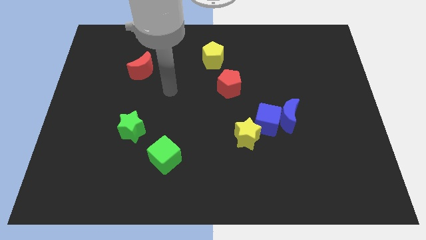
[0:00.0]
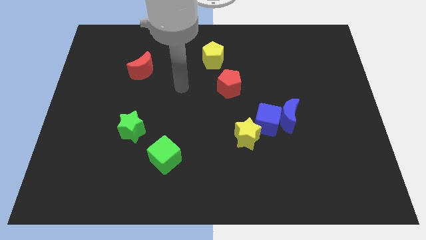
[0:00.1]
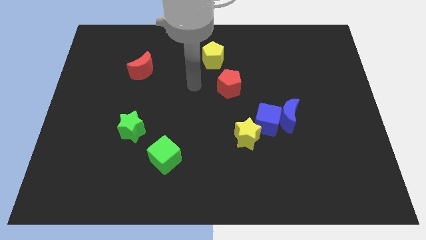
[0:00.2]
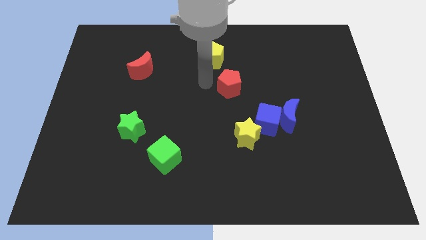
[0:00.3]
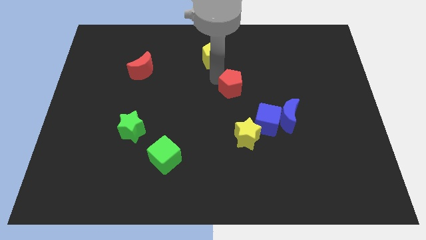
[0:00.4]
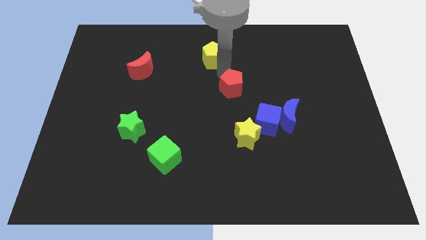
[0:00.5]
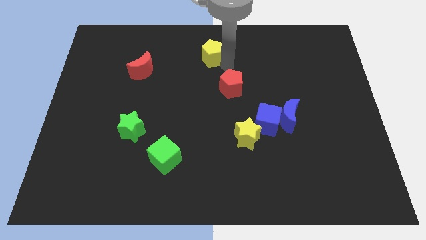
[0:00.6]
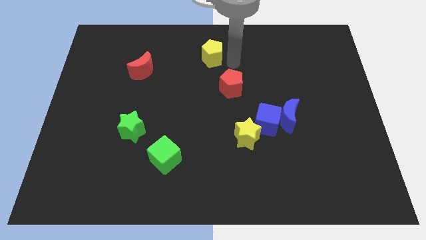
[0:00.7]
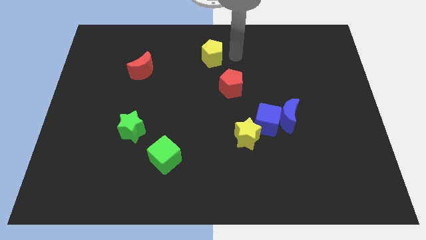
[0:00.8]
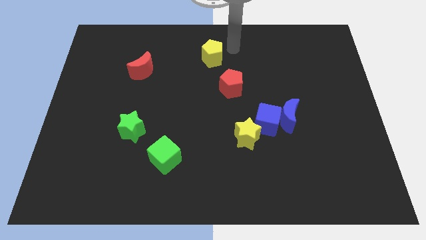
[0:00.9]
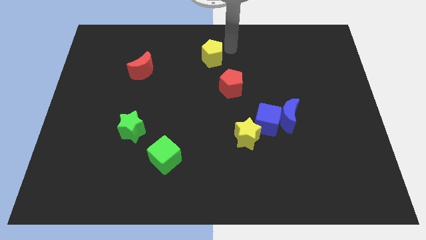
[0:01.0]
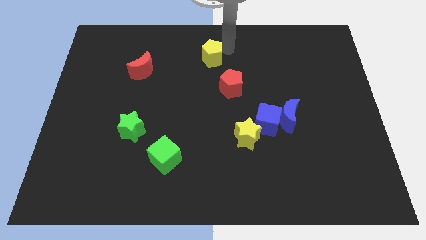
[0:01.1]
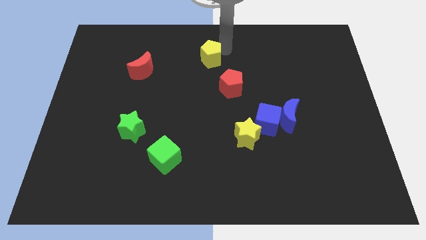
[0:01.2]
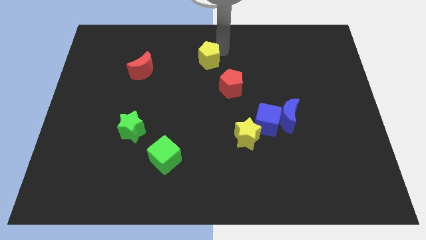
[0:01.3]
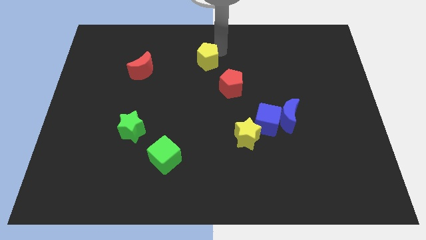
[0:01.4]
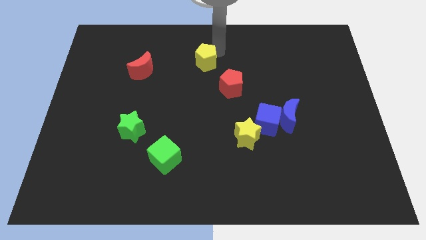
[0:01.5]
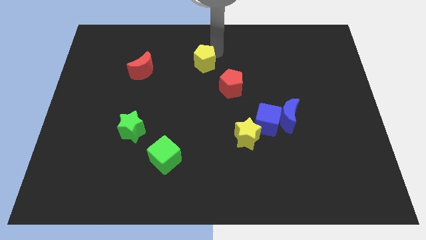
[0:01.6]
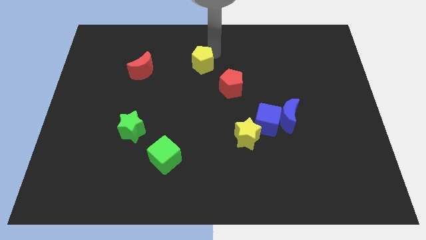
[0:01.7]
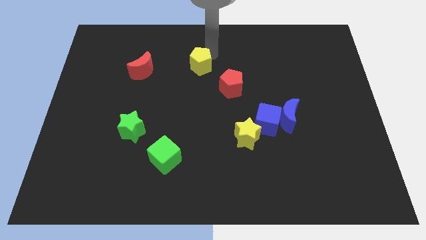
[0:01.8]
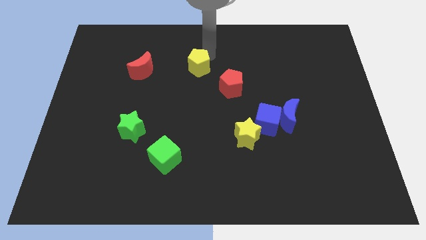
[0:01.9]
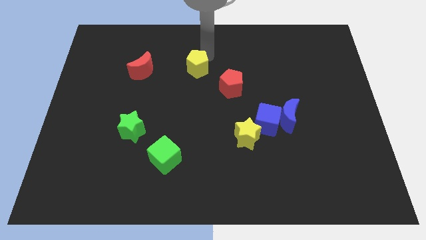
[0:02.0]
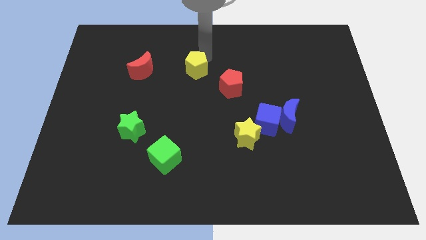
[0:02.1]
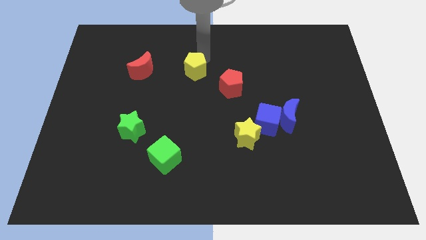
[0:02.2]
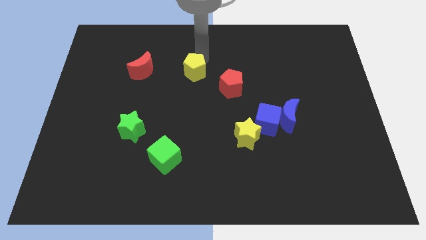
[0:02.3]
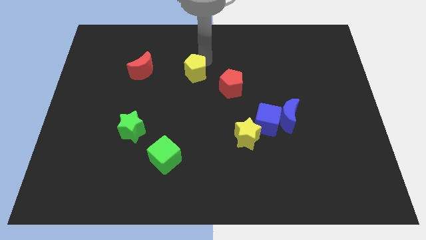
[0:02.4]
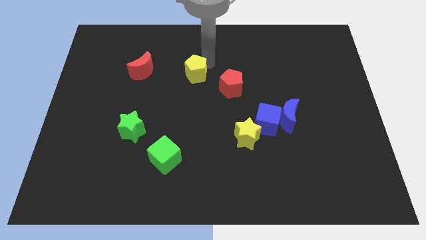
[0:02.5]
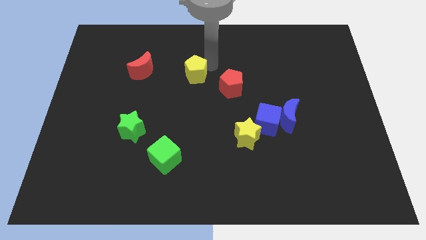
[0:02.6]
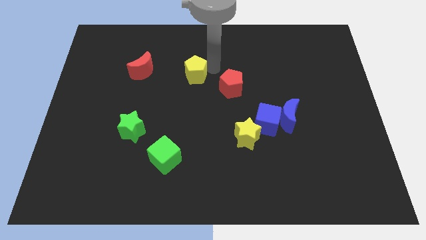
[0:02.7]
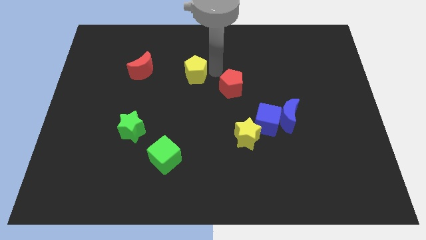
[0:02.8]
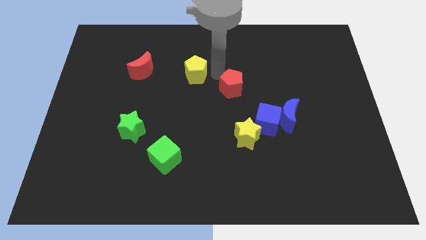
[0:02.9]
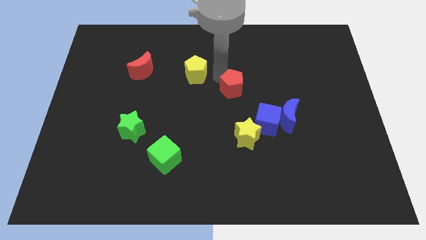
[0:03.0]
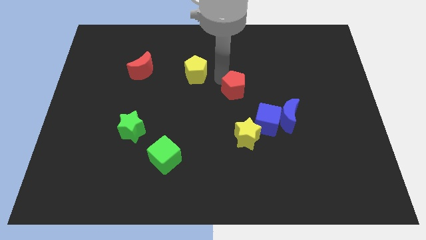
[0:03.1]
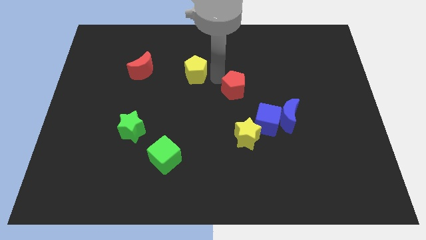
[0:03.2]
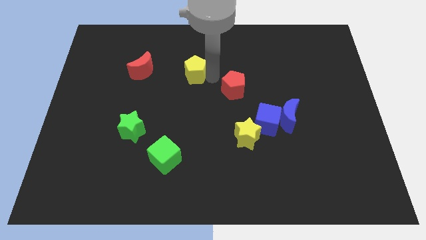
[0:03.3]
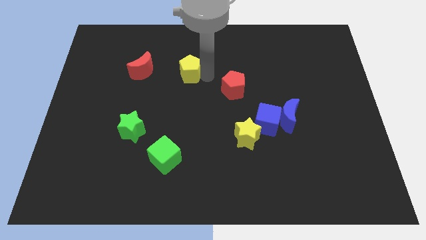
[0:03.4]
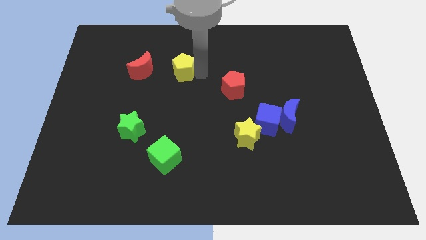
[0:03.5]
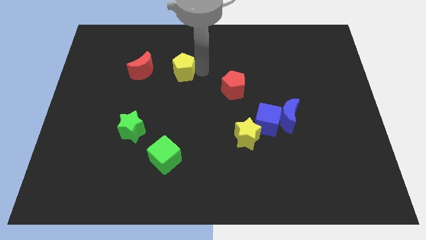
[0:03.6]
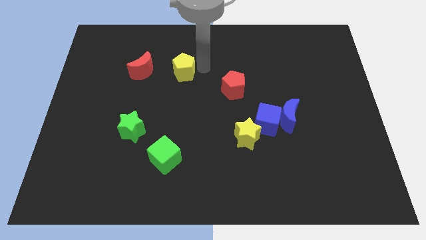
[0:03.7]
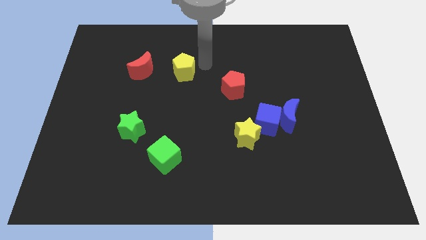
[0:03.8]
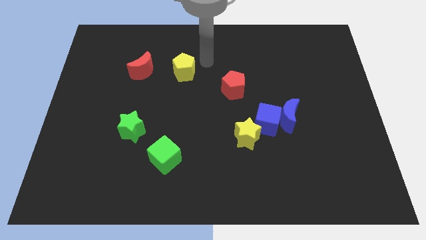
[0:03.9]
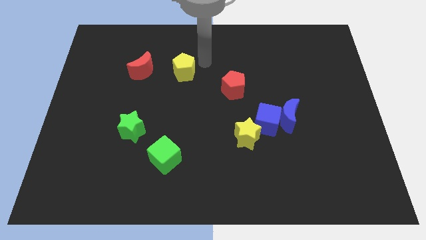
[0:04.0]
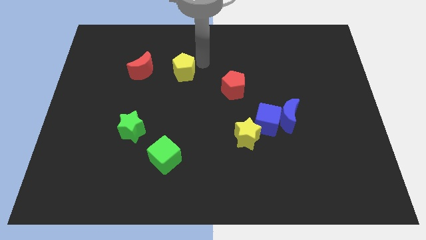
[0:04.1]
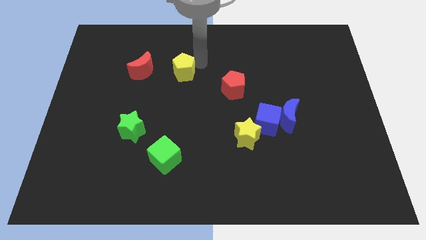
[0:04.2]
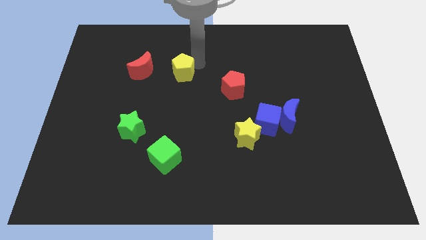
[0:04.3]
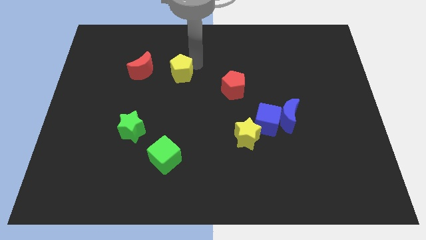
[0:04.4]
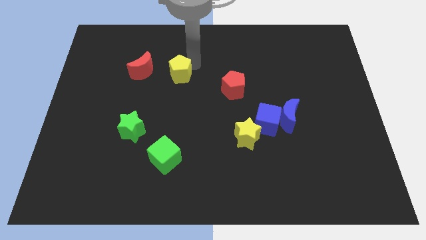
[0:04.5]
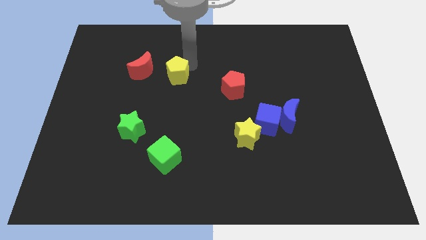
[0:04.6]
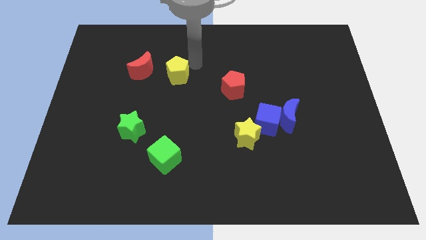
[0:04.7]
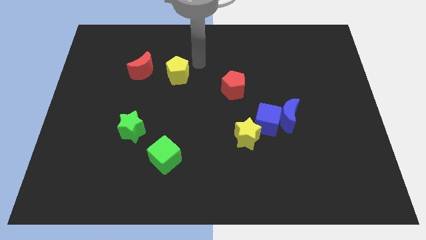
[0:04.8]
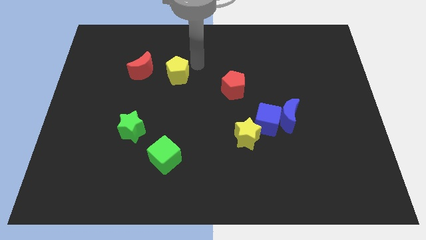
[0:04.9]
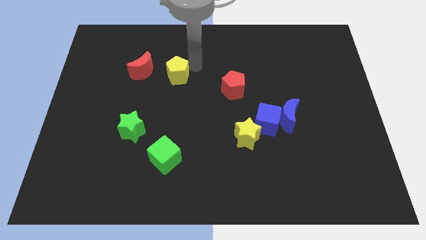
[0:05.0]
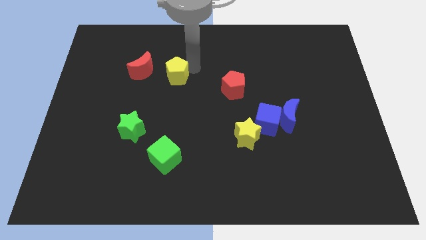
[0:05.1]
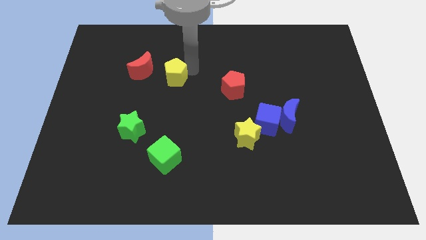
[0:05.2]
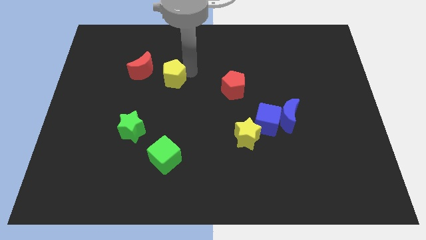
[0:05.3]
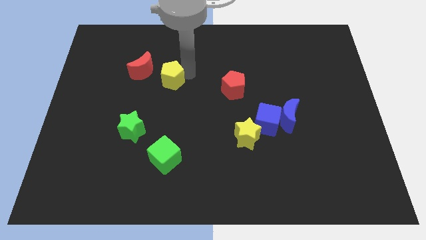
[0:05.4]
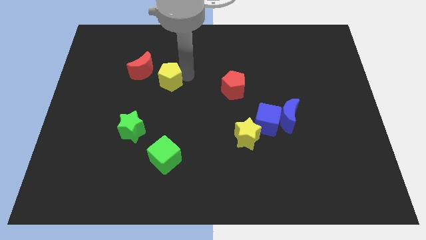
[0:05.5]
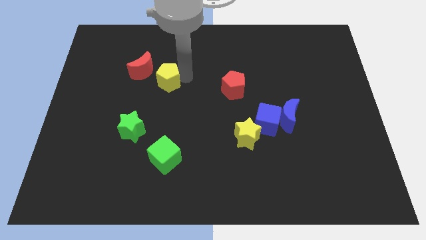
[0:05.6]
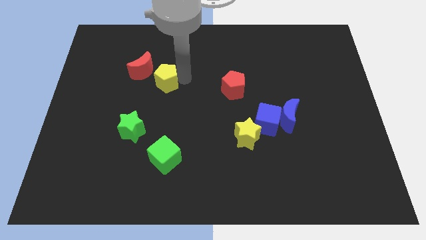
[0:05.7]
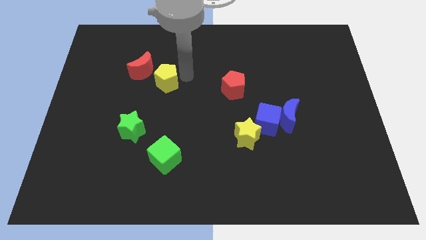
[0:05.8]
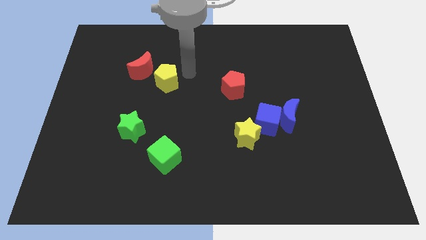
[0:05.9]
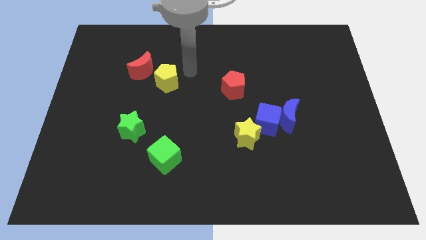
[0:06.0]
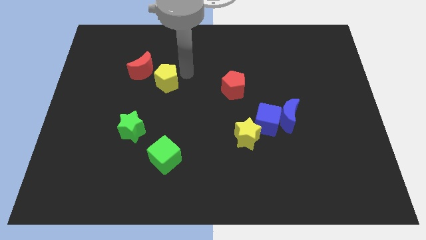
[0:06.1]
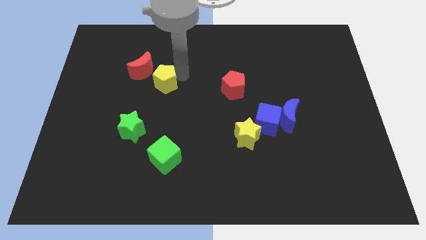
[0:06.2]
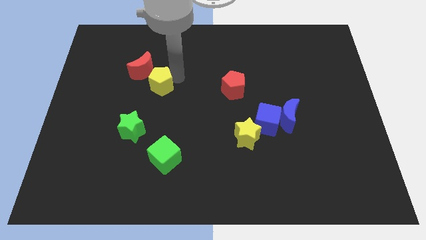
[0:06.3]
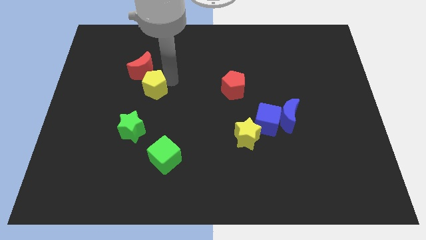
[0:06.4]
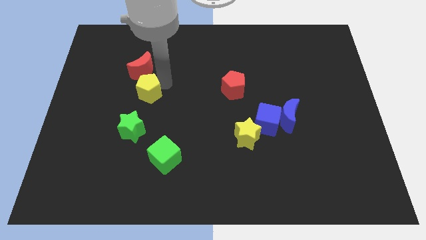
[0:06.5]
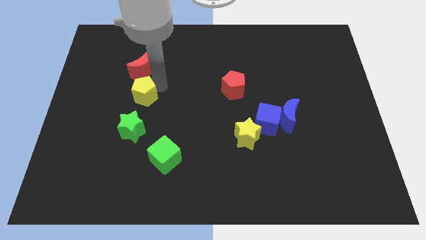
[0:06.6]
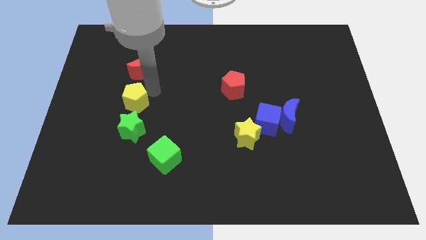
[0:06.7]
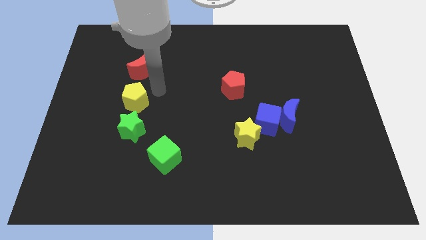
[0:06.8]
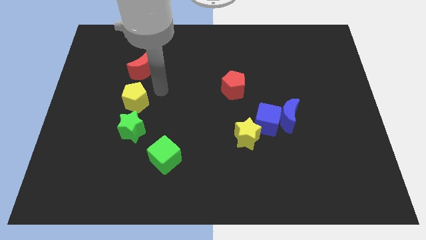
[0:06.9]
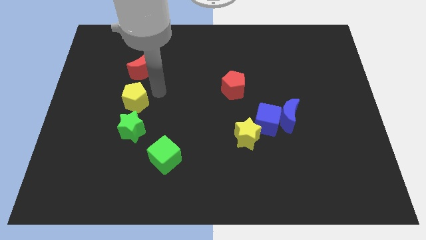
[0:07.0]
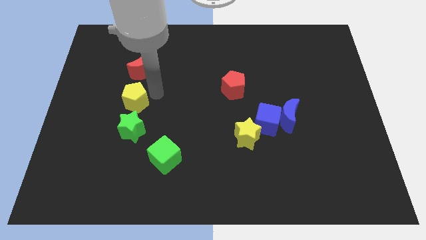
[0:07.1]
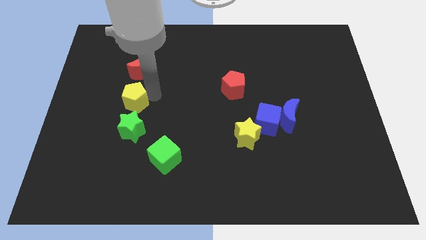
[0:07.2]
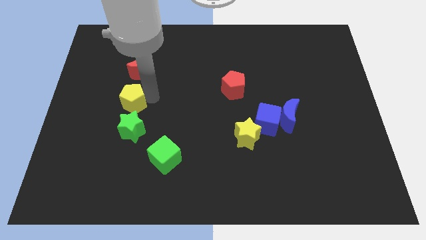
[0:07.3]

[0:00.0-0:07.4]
move the yellow pentagon diagonally up and to the left of the green star
